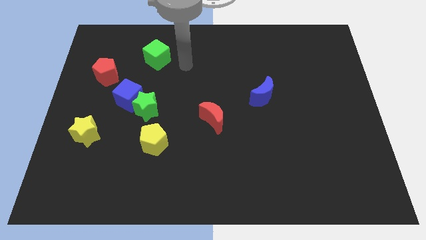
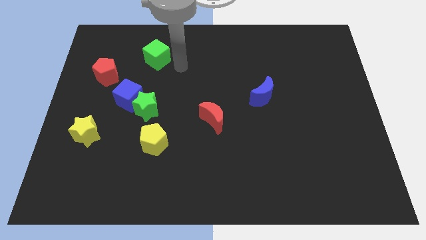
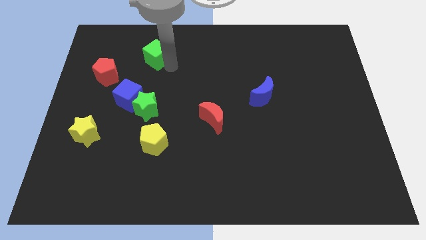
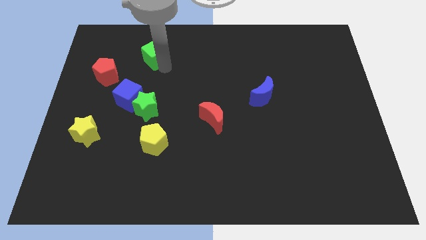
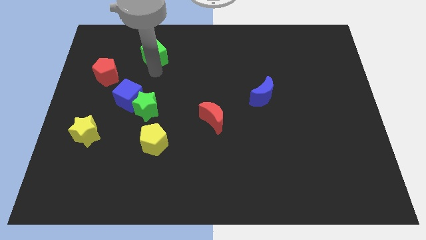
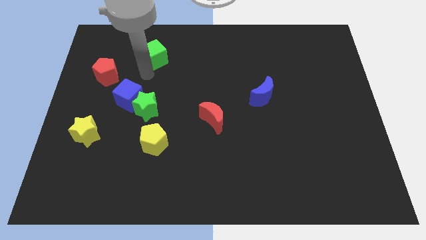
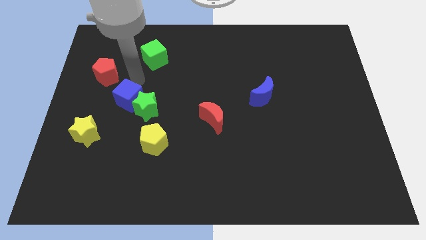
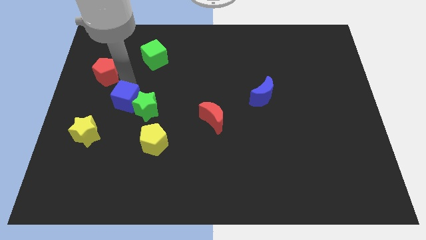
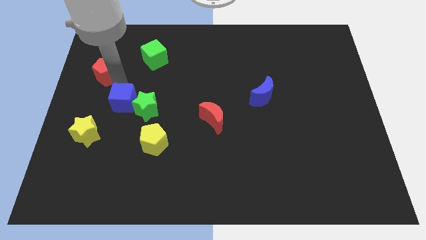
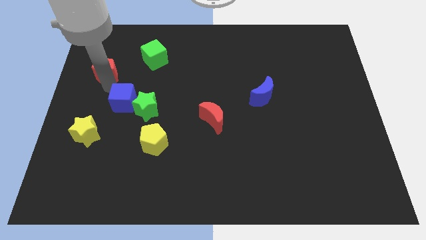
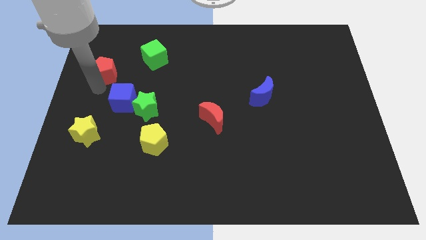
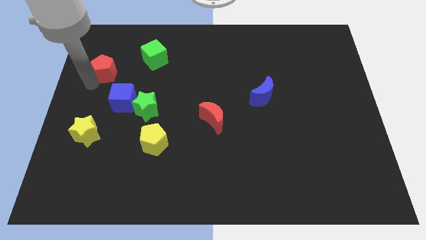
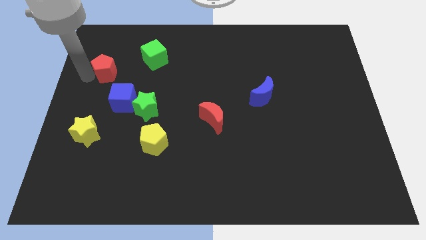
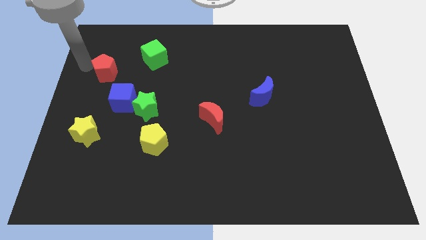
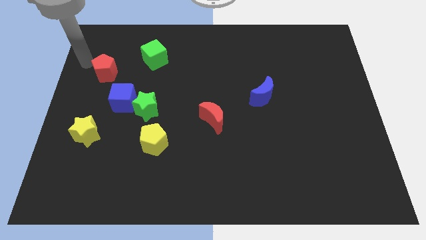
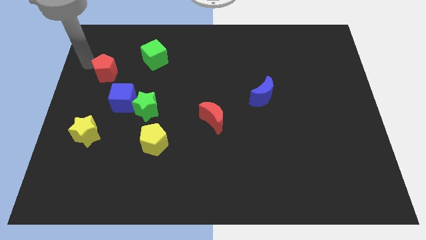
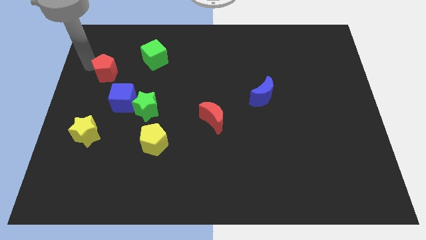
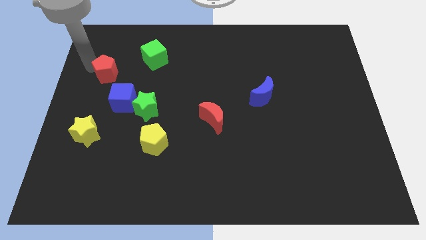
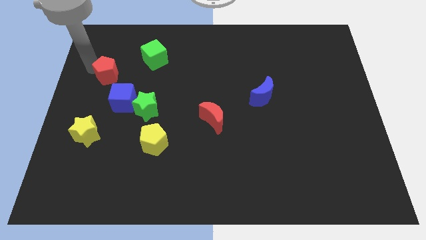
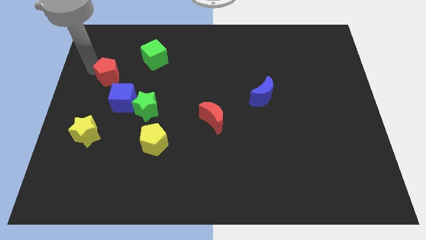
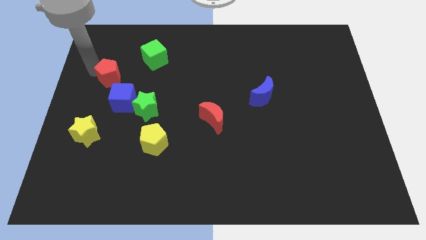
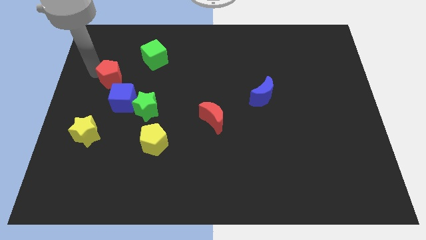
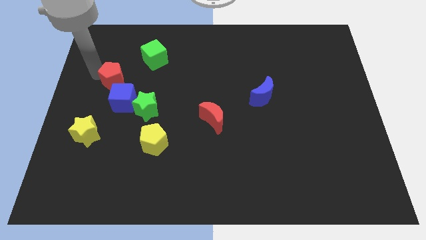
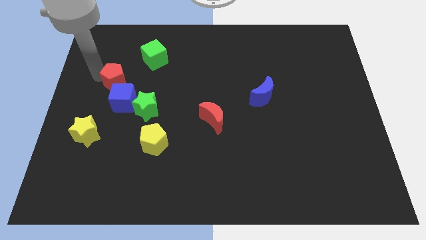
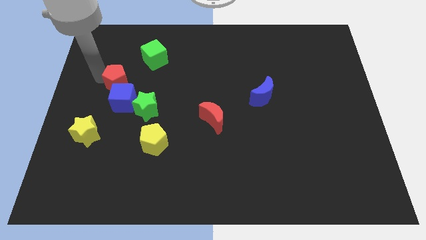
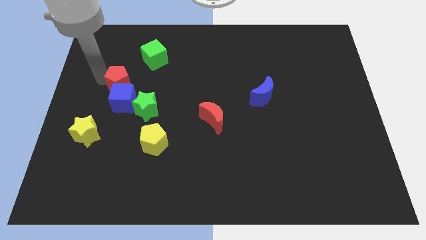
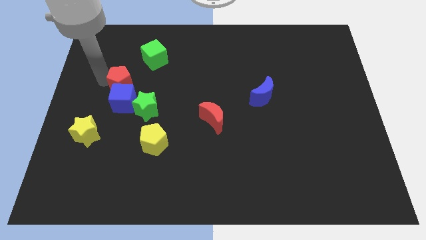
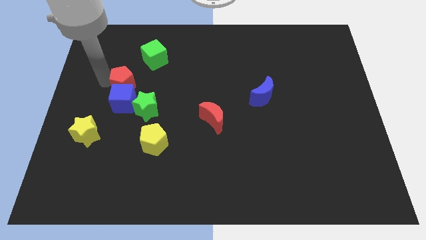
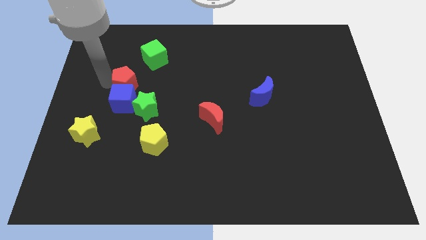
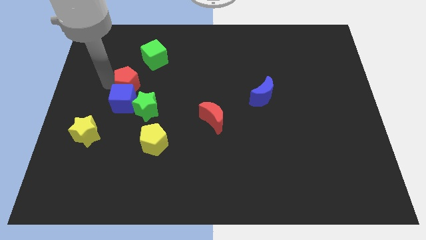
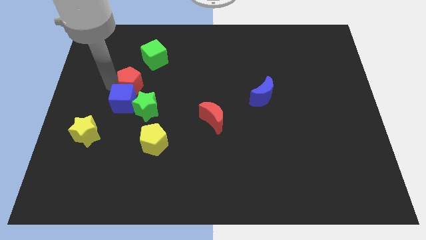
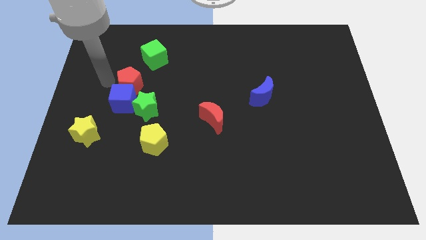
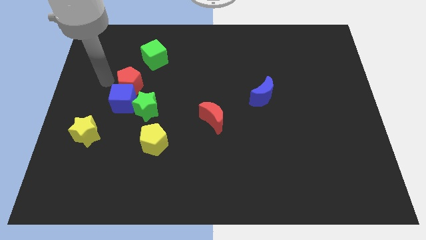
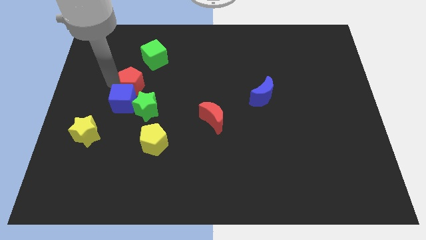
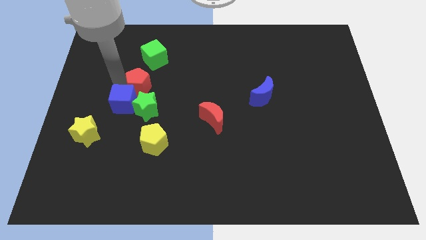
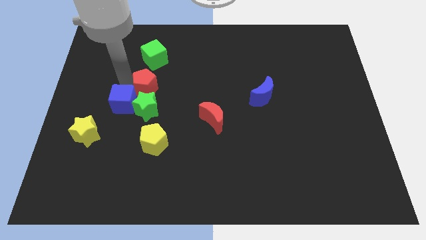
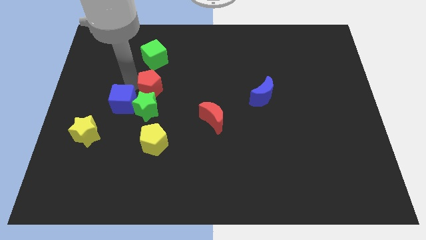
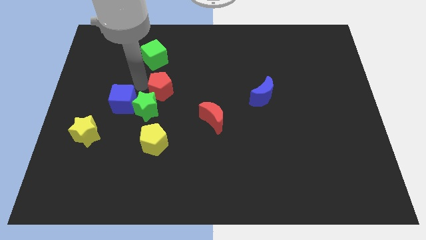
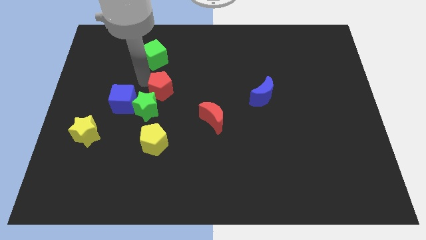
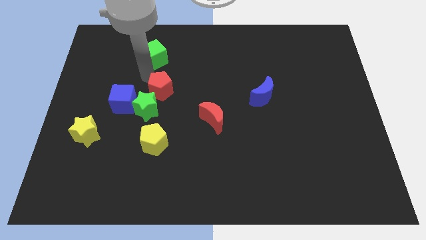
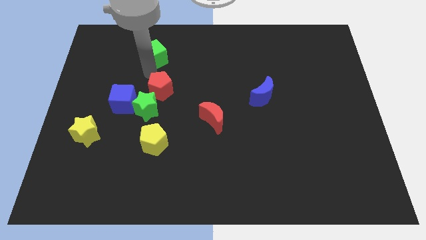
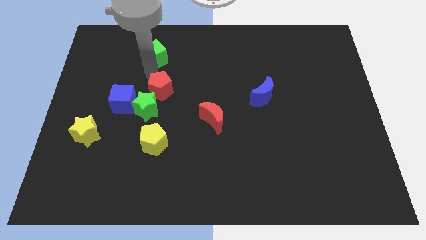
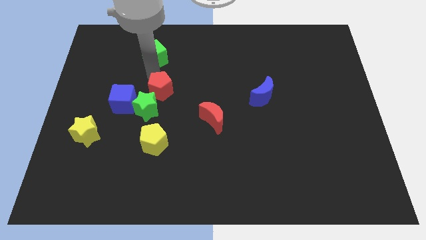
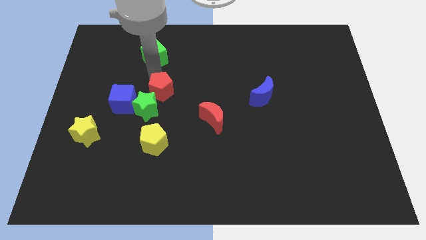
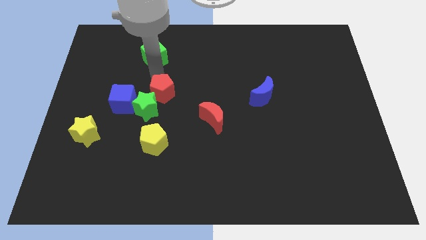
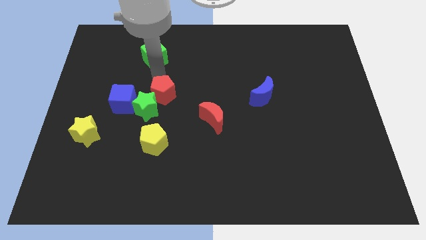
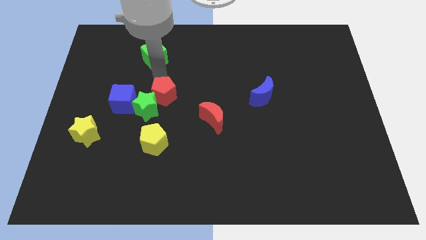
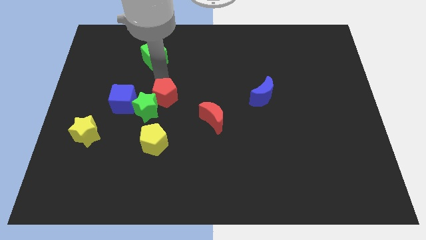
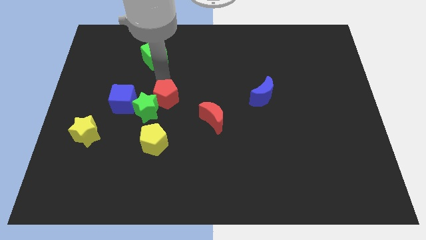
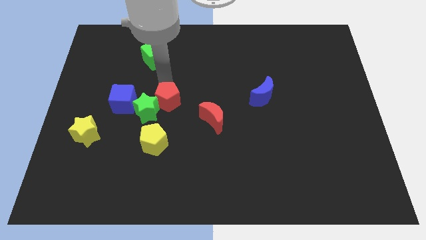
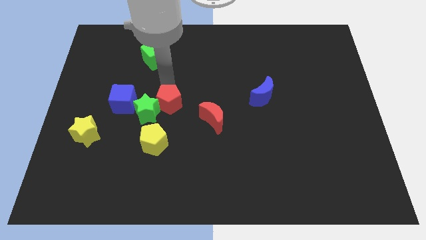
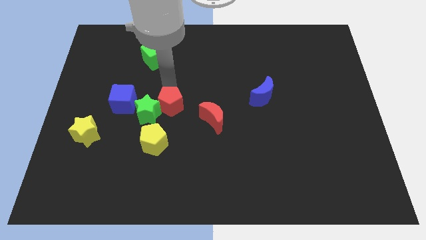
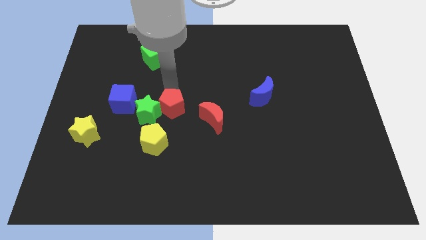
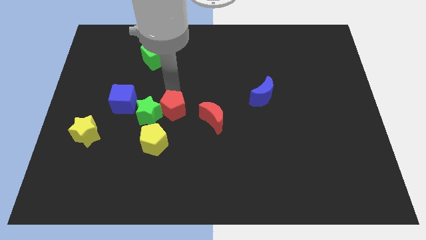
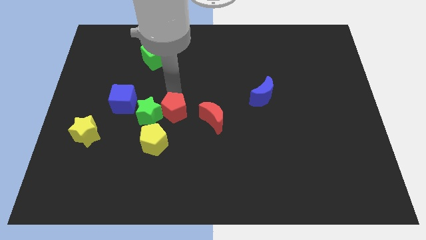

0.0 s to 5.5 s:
slide the red pentagon diagonally downwards and to the right

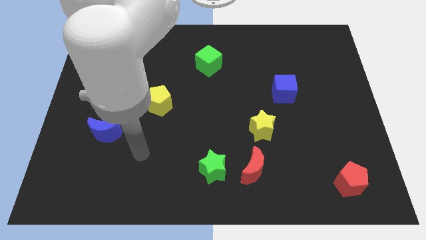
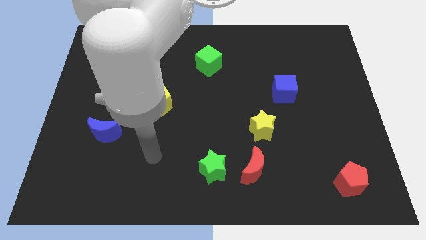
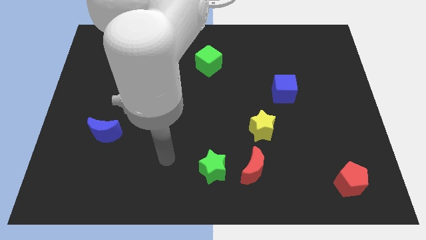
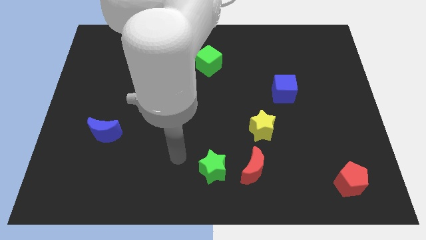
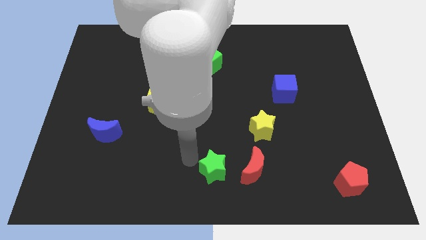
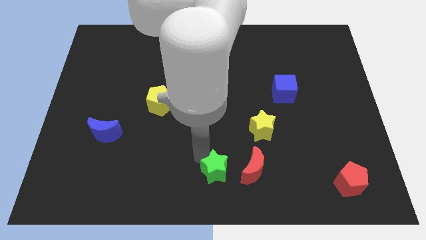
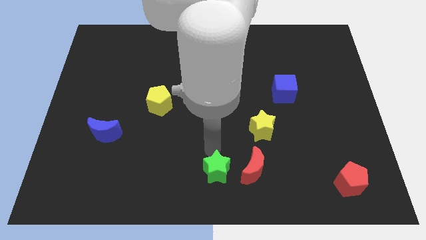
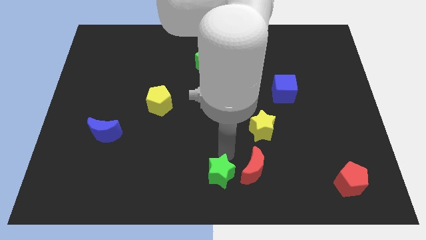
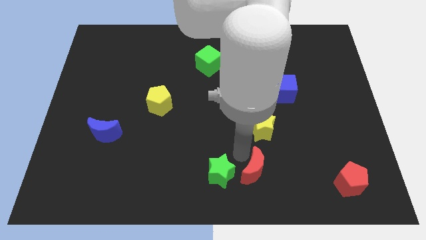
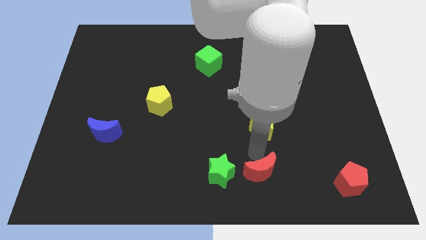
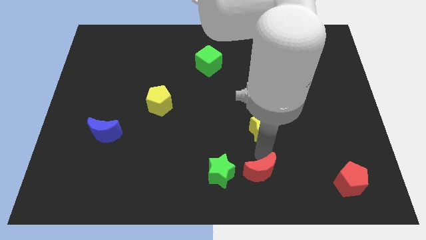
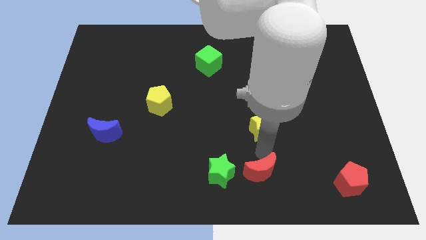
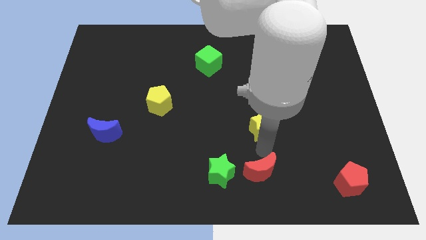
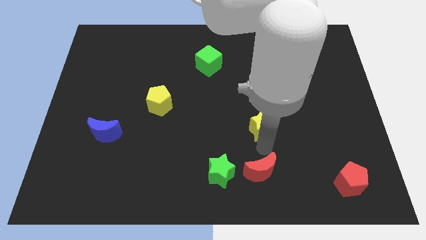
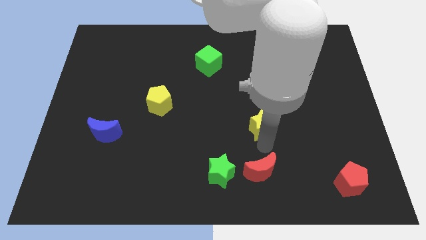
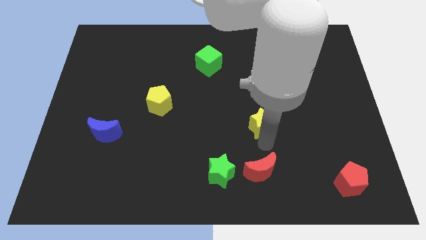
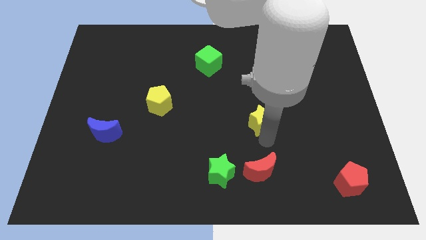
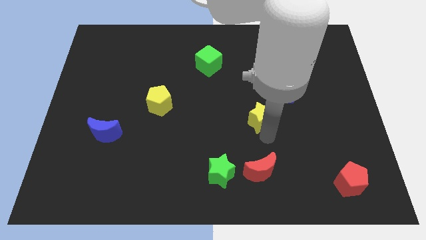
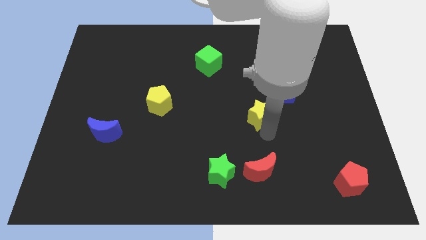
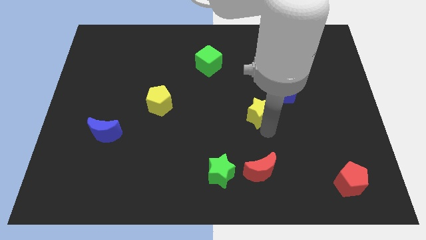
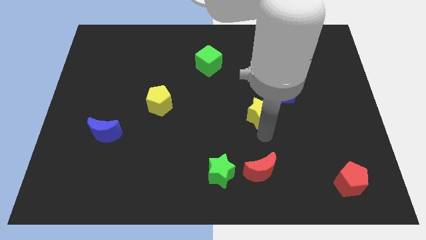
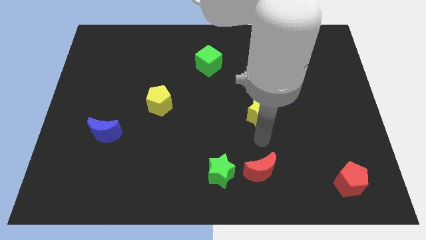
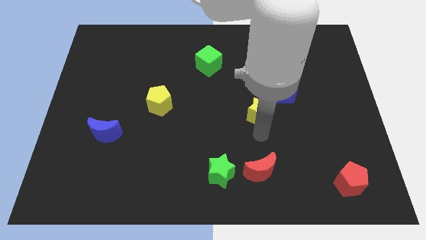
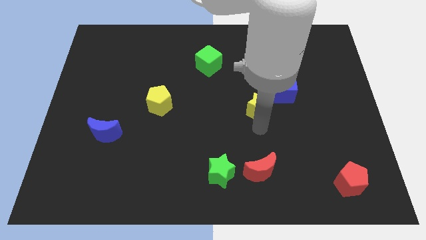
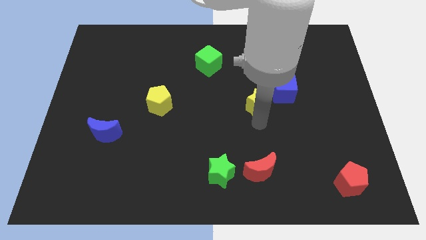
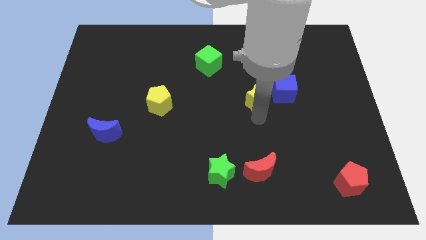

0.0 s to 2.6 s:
slide the yellow star slightly upwards
